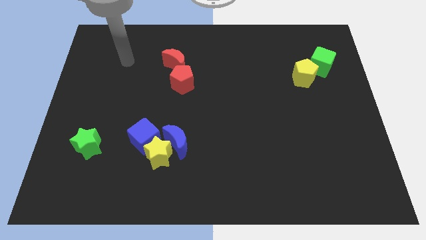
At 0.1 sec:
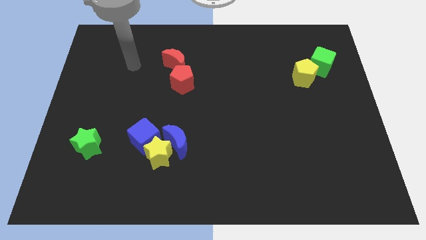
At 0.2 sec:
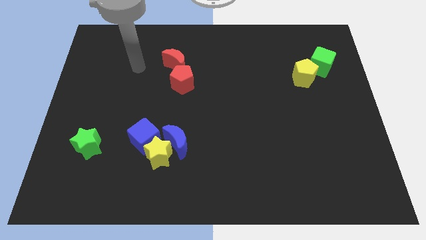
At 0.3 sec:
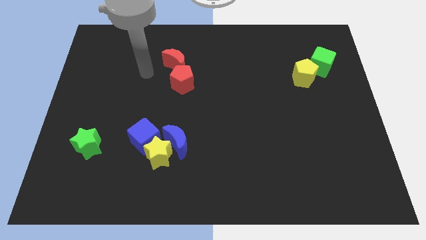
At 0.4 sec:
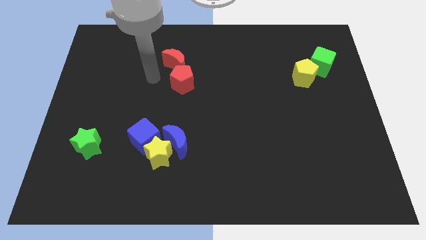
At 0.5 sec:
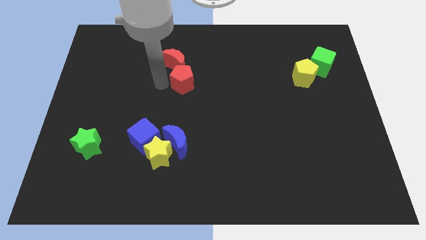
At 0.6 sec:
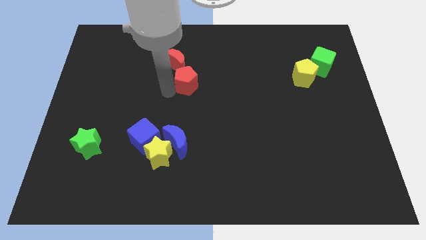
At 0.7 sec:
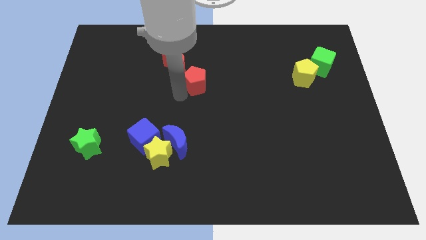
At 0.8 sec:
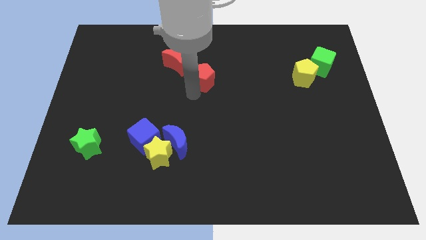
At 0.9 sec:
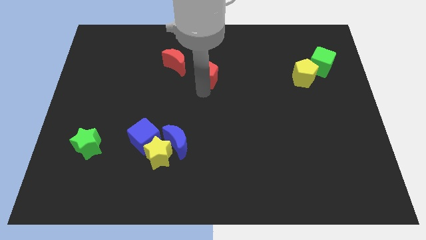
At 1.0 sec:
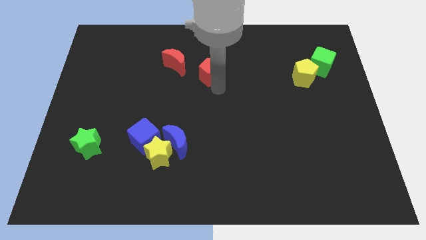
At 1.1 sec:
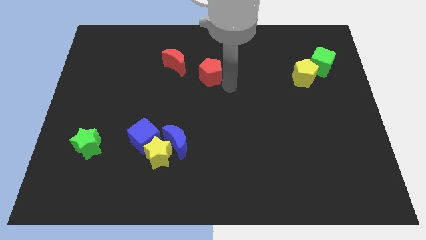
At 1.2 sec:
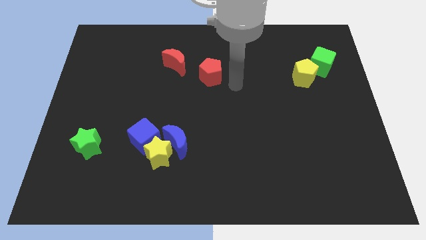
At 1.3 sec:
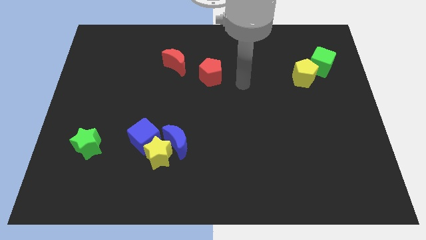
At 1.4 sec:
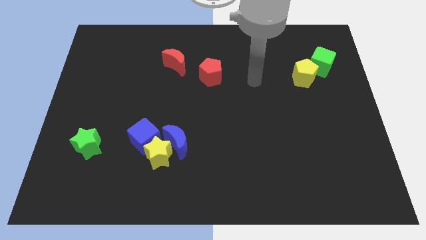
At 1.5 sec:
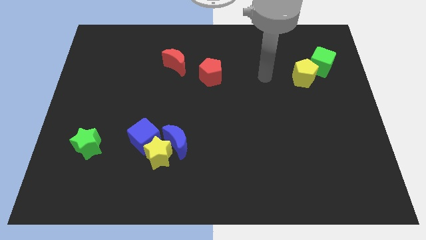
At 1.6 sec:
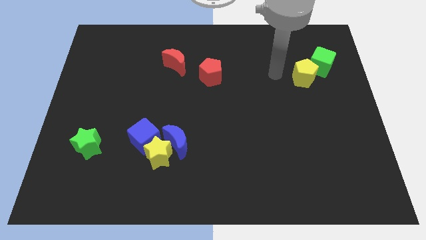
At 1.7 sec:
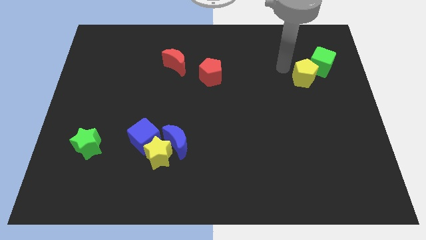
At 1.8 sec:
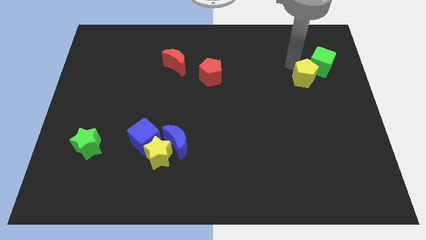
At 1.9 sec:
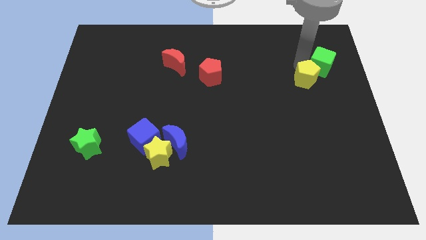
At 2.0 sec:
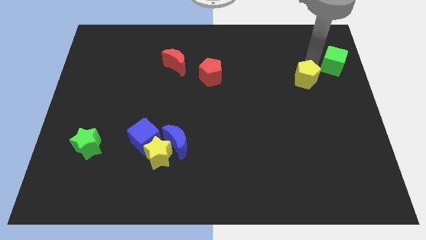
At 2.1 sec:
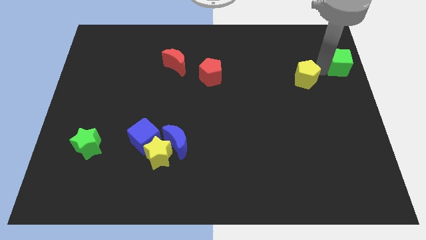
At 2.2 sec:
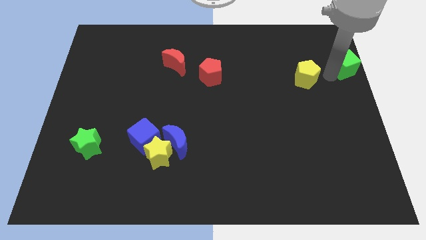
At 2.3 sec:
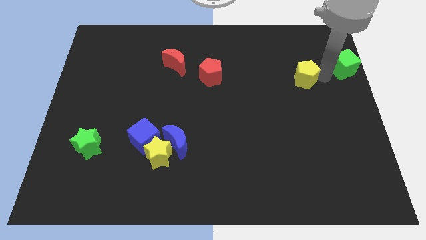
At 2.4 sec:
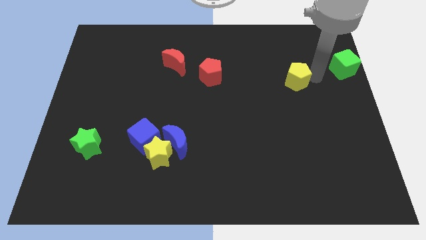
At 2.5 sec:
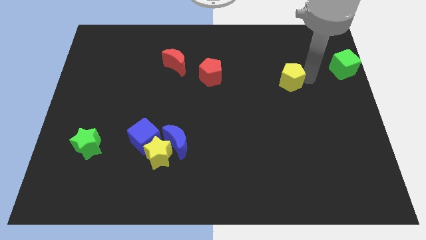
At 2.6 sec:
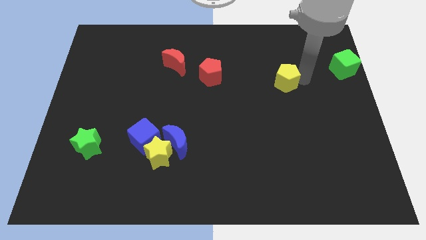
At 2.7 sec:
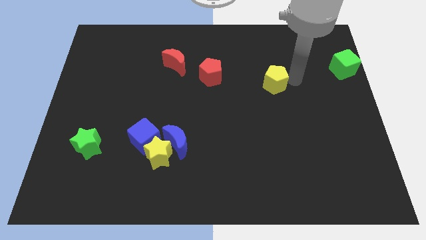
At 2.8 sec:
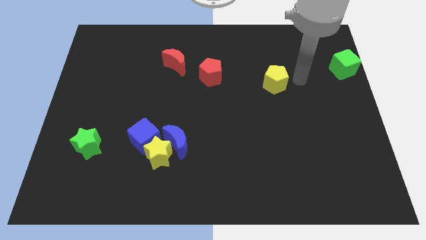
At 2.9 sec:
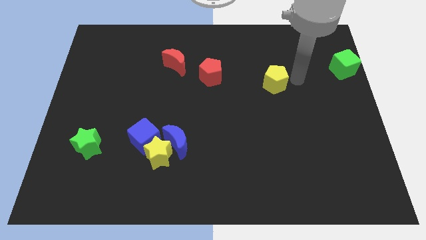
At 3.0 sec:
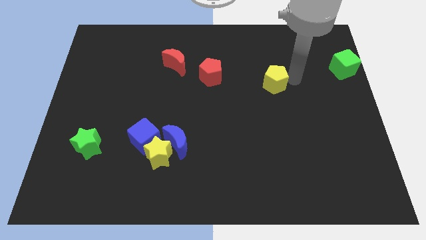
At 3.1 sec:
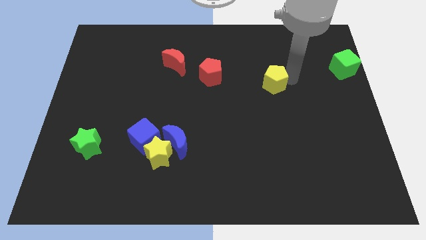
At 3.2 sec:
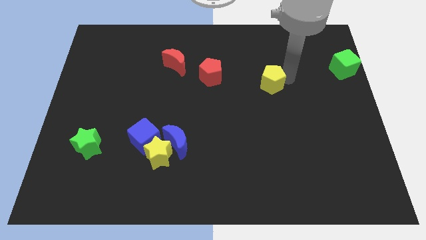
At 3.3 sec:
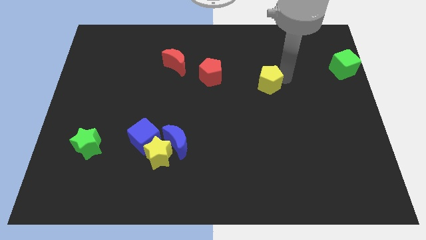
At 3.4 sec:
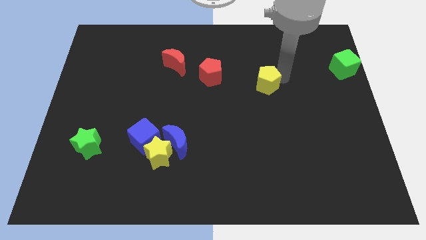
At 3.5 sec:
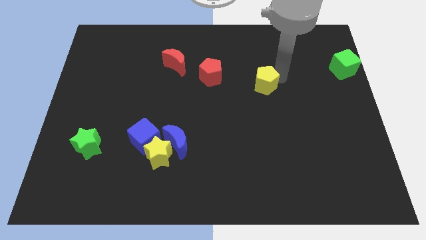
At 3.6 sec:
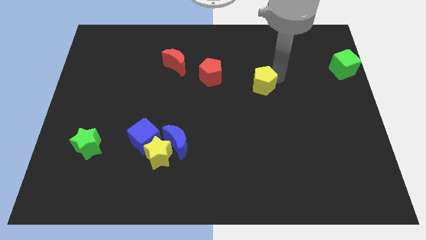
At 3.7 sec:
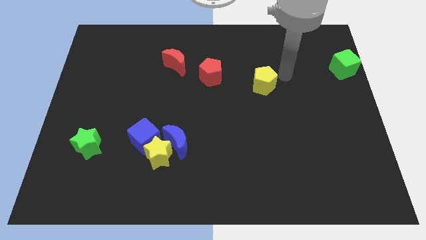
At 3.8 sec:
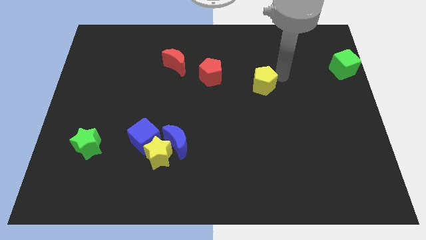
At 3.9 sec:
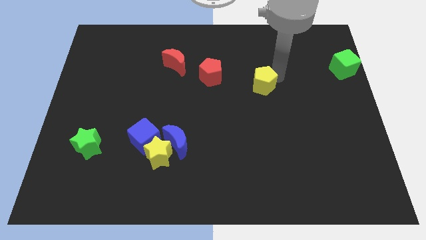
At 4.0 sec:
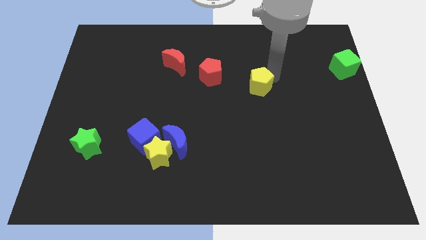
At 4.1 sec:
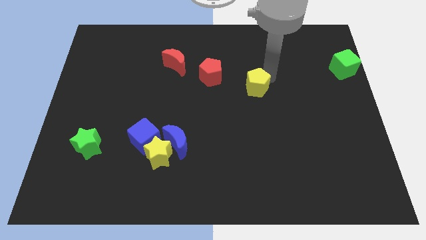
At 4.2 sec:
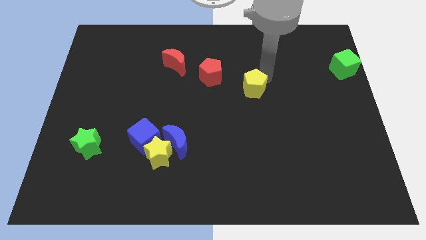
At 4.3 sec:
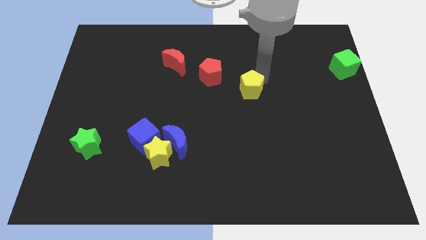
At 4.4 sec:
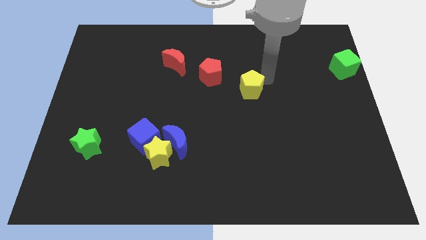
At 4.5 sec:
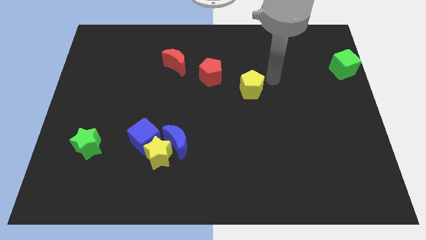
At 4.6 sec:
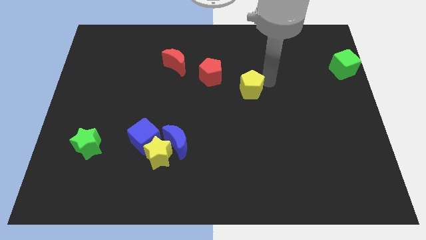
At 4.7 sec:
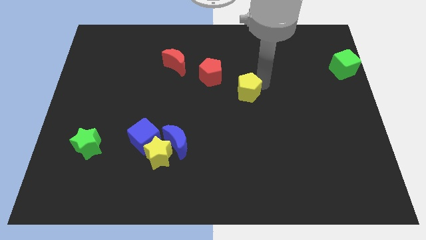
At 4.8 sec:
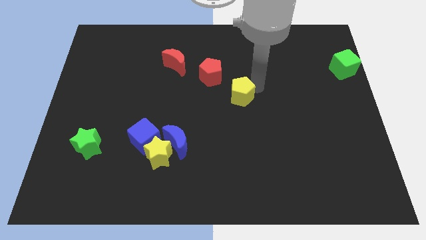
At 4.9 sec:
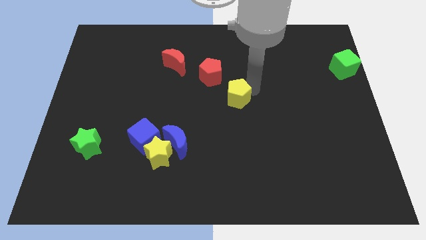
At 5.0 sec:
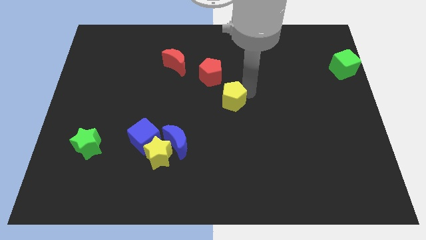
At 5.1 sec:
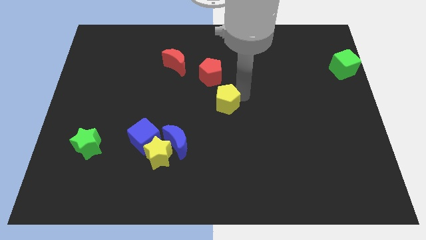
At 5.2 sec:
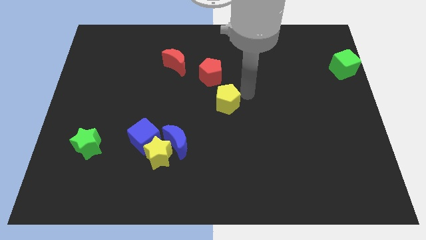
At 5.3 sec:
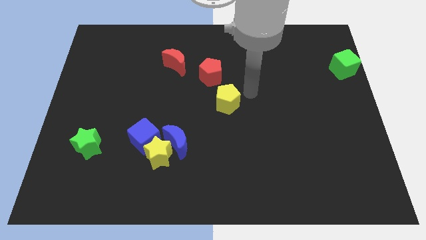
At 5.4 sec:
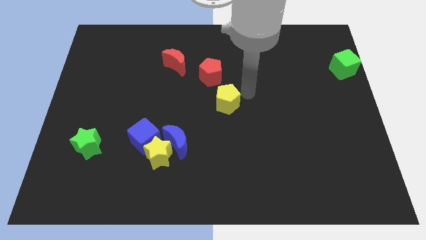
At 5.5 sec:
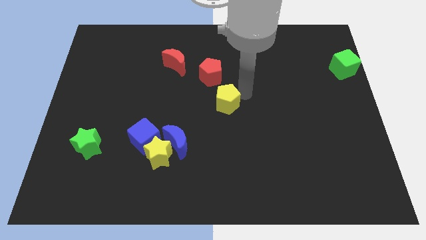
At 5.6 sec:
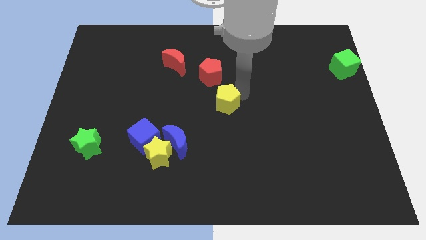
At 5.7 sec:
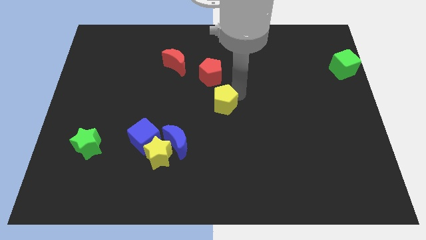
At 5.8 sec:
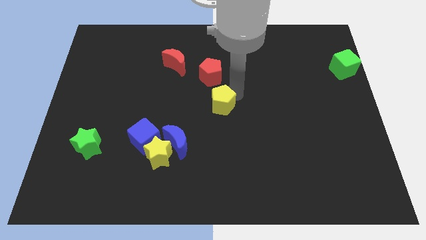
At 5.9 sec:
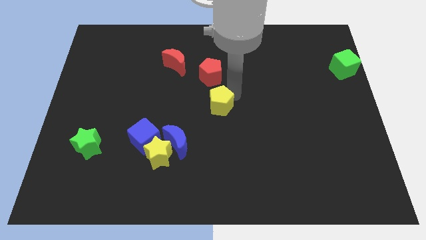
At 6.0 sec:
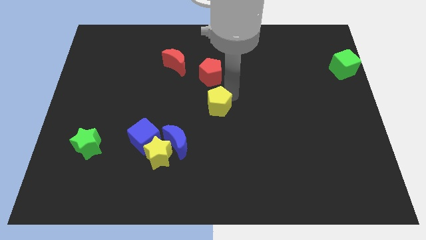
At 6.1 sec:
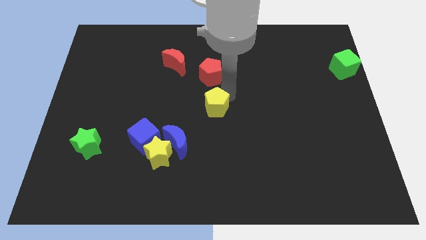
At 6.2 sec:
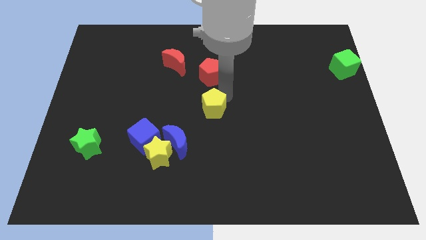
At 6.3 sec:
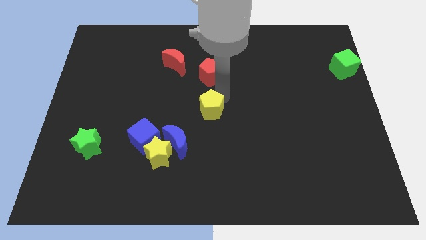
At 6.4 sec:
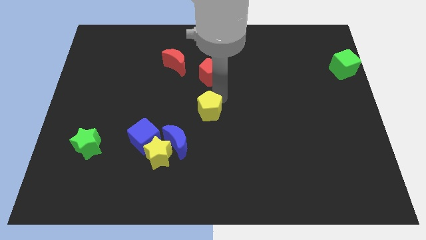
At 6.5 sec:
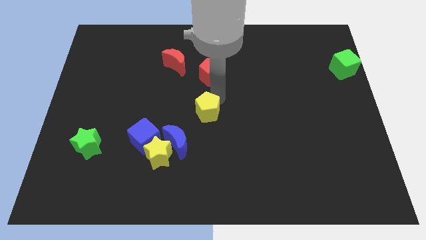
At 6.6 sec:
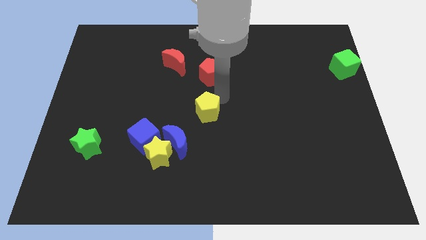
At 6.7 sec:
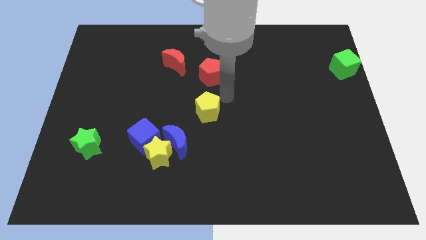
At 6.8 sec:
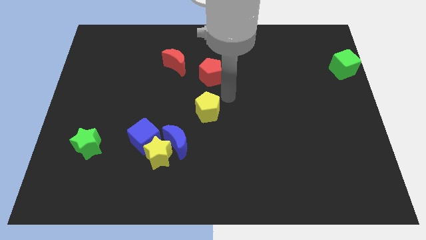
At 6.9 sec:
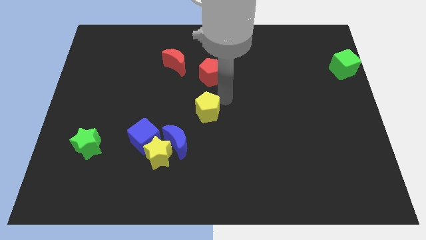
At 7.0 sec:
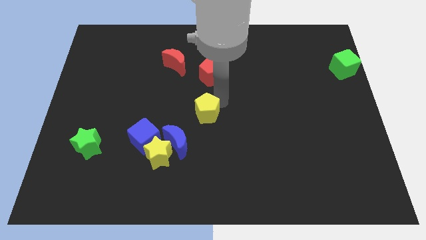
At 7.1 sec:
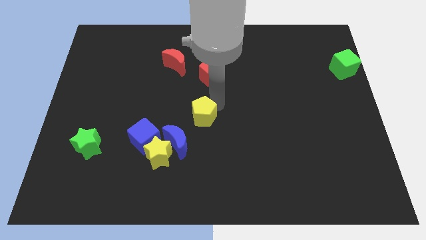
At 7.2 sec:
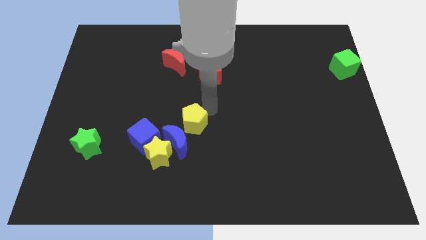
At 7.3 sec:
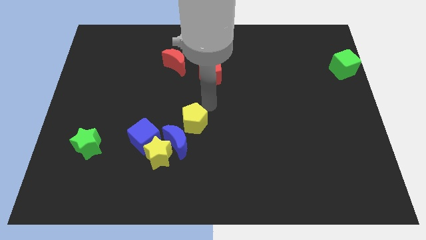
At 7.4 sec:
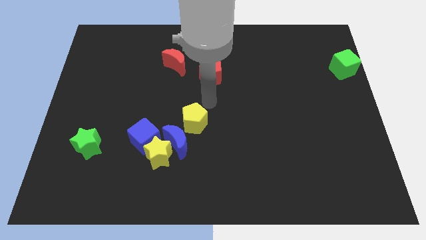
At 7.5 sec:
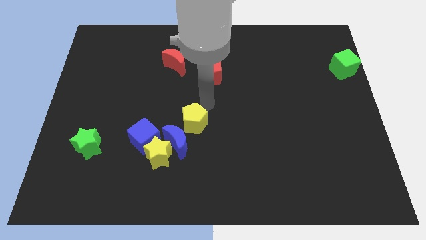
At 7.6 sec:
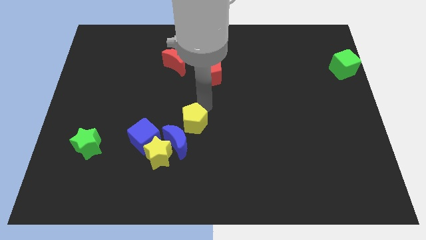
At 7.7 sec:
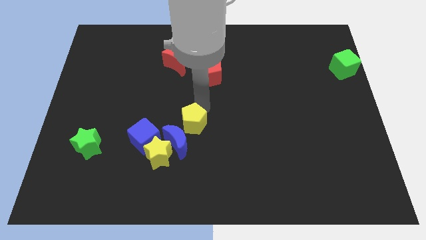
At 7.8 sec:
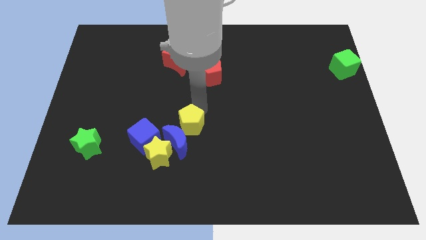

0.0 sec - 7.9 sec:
put the yellow pentagon towards the blue moon

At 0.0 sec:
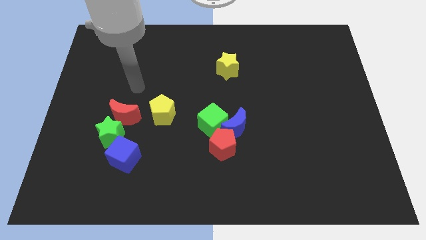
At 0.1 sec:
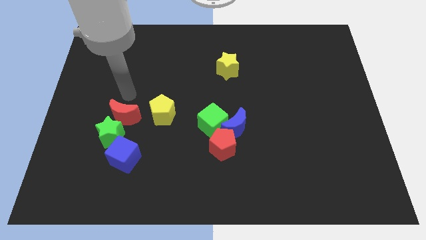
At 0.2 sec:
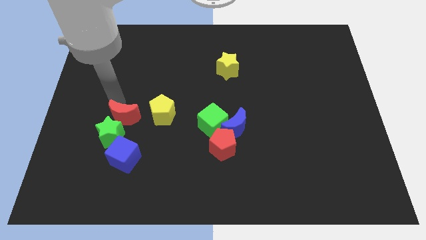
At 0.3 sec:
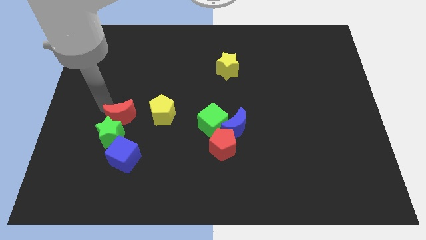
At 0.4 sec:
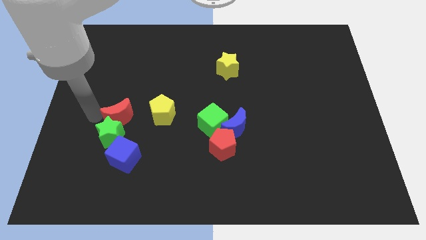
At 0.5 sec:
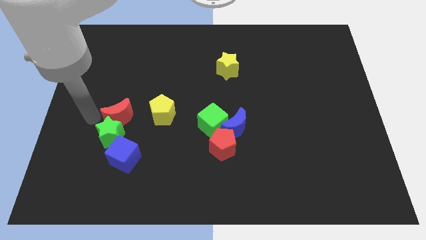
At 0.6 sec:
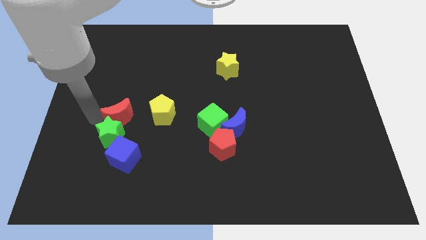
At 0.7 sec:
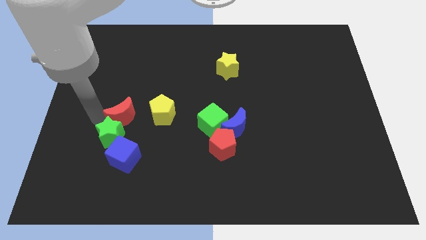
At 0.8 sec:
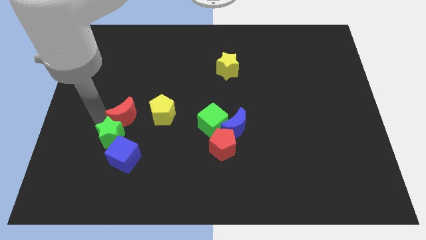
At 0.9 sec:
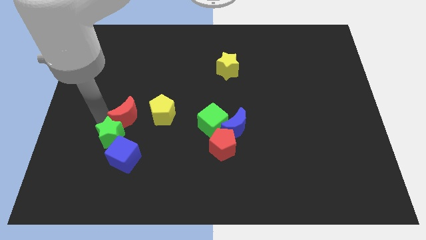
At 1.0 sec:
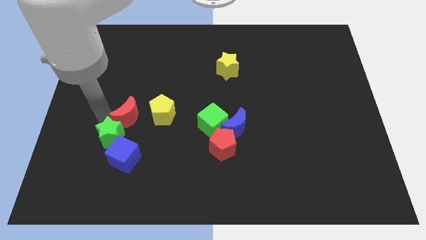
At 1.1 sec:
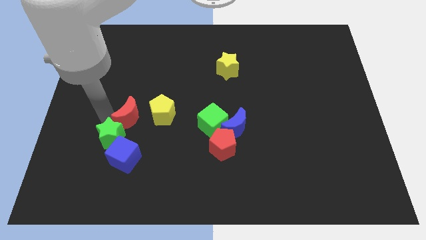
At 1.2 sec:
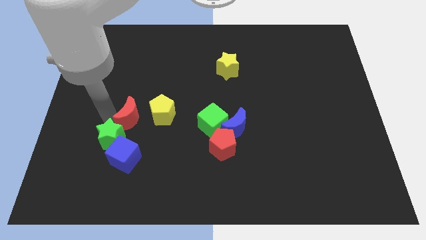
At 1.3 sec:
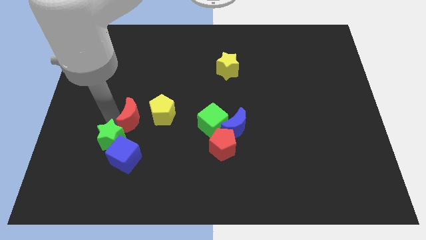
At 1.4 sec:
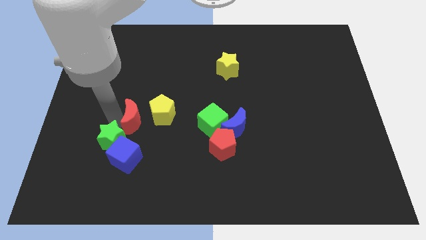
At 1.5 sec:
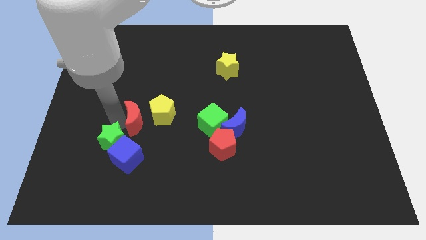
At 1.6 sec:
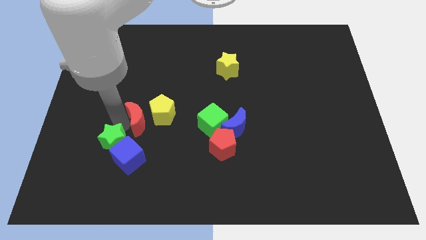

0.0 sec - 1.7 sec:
put the red moon to the yellow pentagon
